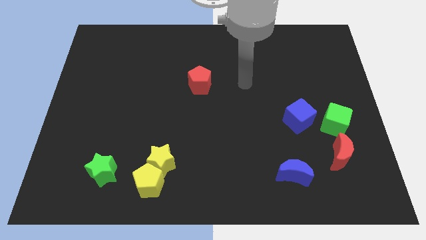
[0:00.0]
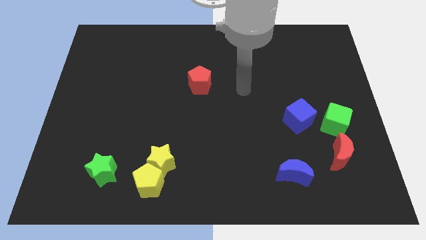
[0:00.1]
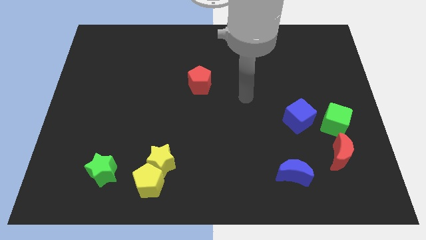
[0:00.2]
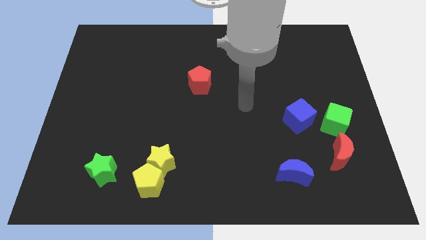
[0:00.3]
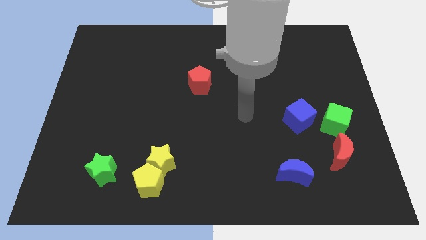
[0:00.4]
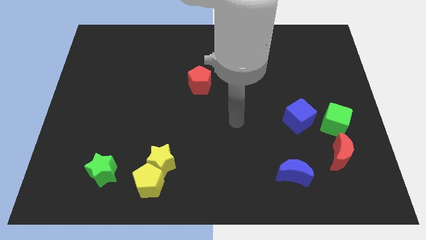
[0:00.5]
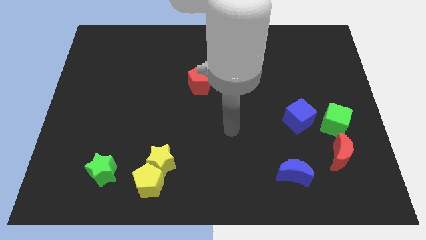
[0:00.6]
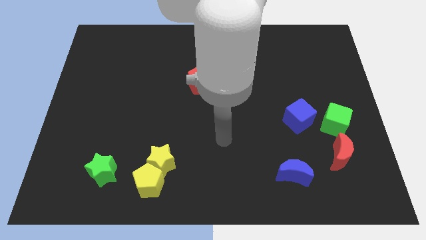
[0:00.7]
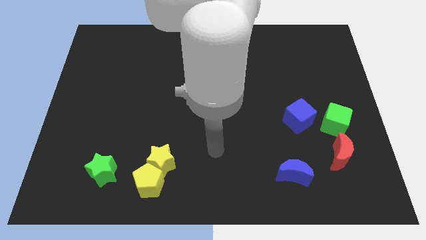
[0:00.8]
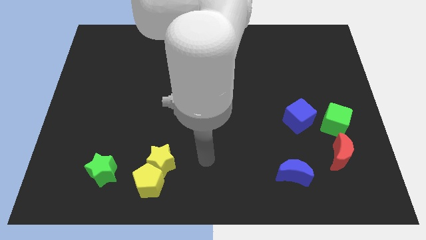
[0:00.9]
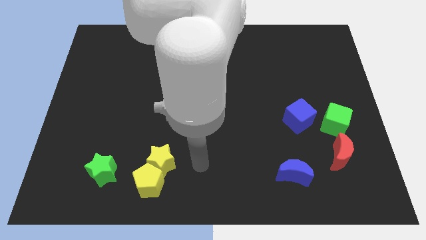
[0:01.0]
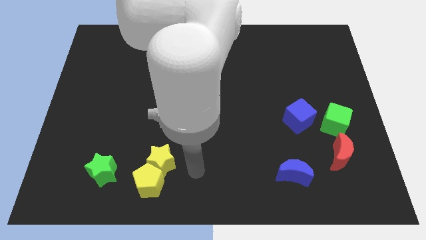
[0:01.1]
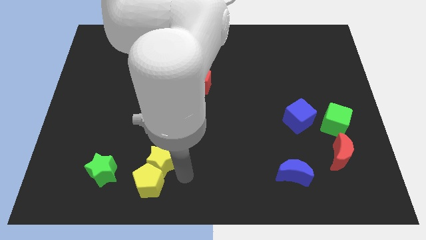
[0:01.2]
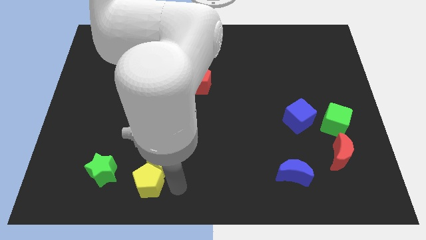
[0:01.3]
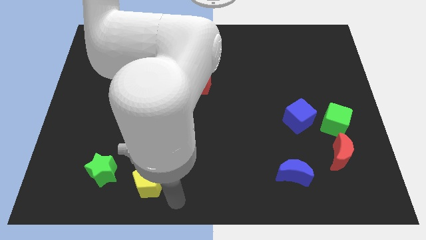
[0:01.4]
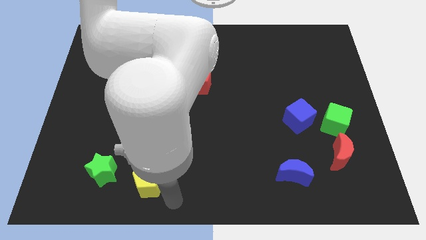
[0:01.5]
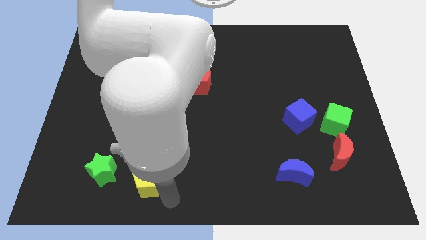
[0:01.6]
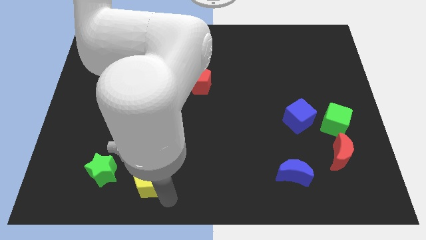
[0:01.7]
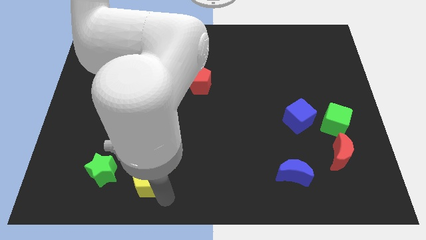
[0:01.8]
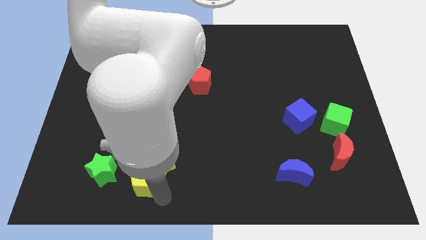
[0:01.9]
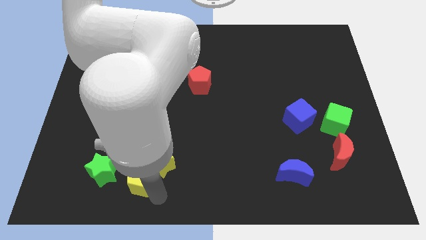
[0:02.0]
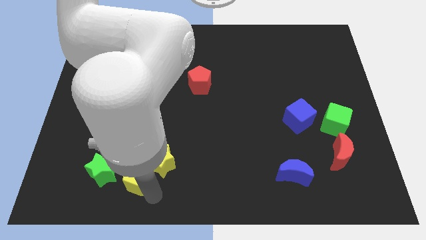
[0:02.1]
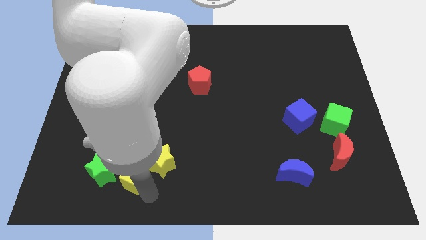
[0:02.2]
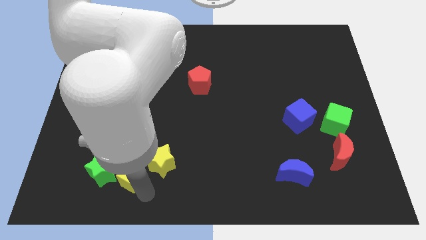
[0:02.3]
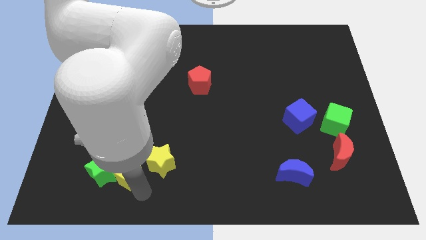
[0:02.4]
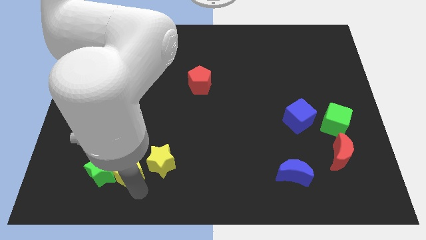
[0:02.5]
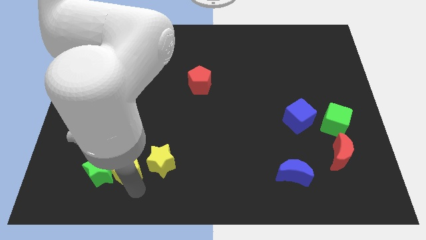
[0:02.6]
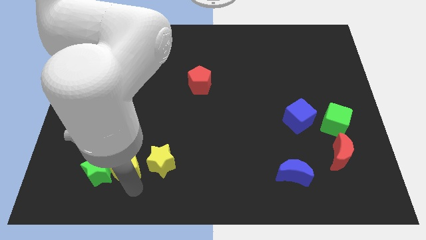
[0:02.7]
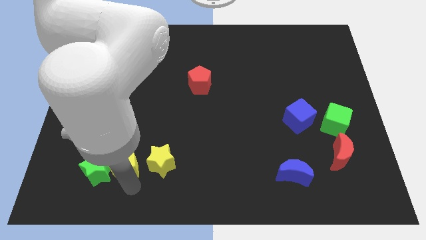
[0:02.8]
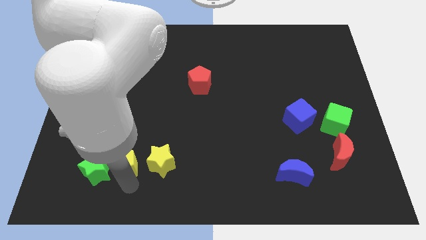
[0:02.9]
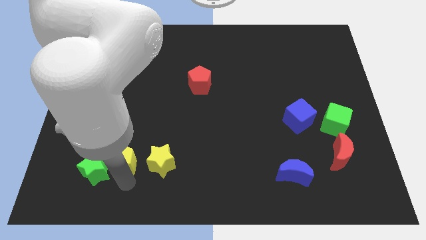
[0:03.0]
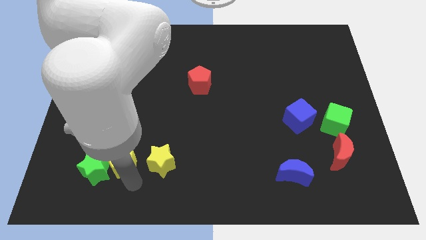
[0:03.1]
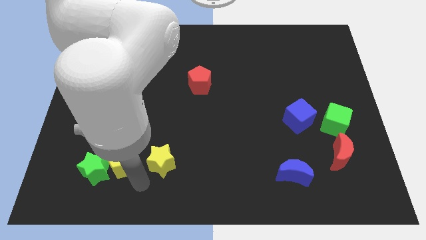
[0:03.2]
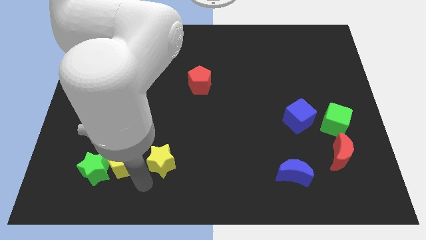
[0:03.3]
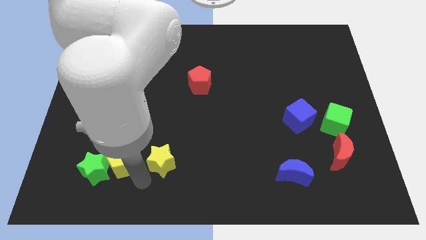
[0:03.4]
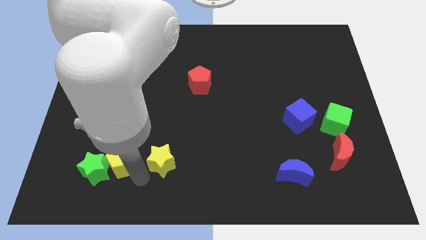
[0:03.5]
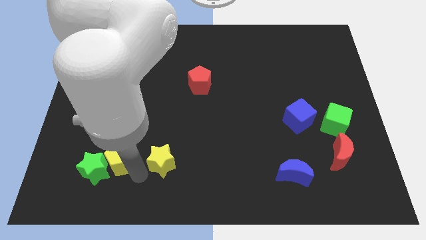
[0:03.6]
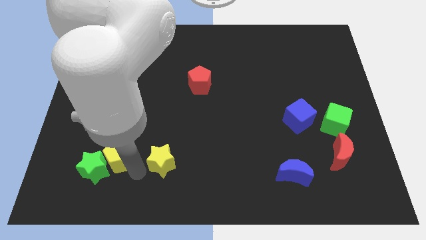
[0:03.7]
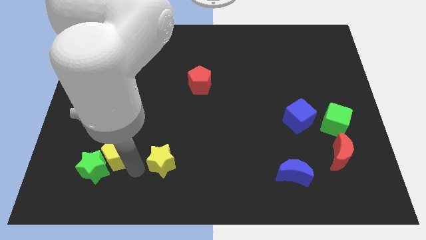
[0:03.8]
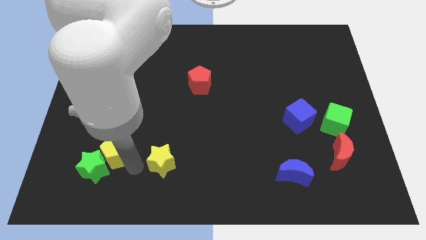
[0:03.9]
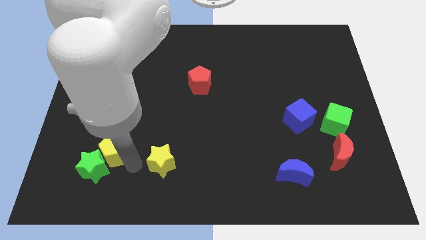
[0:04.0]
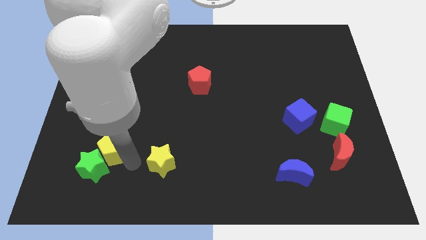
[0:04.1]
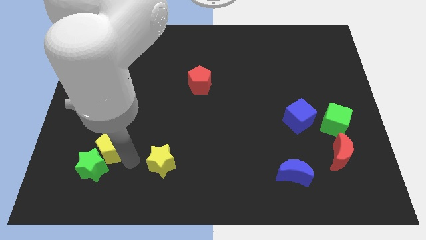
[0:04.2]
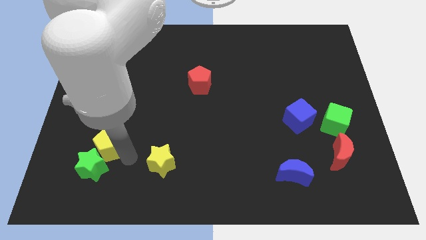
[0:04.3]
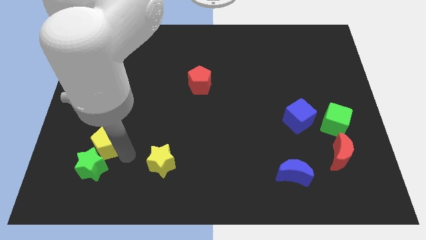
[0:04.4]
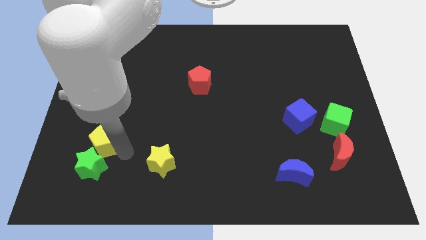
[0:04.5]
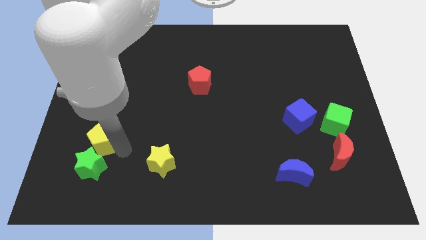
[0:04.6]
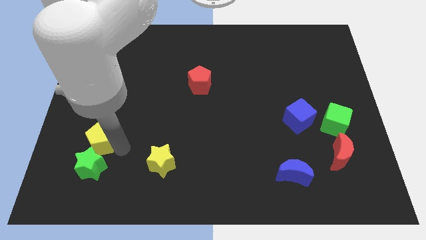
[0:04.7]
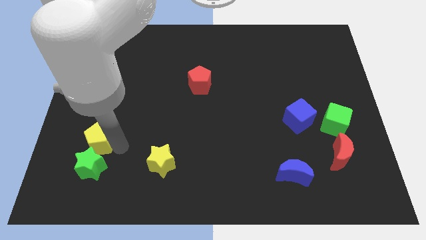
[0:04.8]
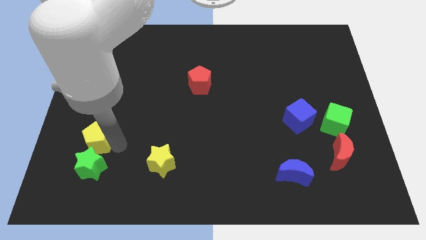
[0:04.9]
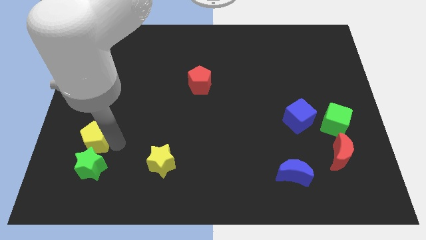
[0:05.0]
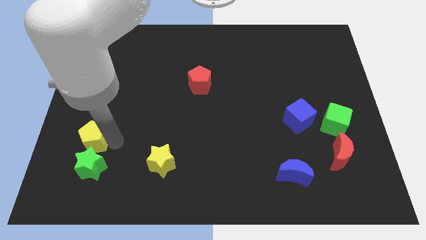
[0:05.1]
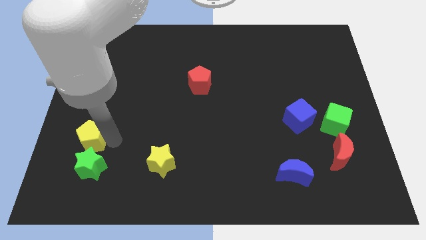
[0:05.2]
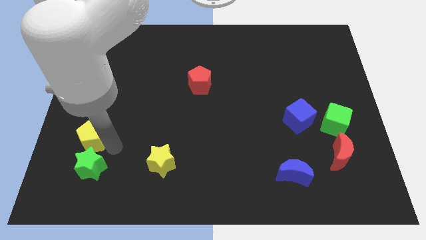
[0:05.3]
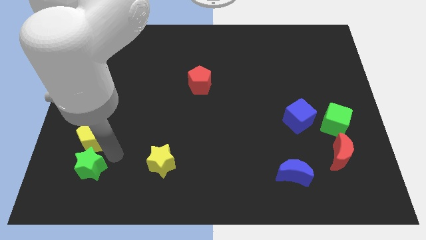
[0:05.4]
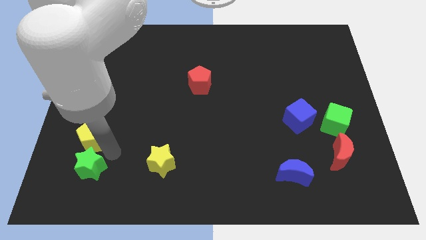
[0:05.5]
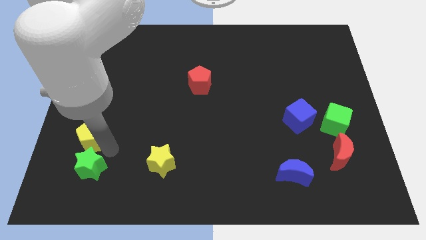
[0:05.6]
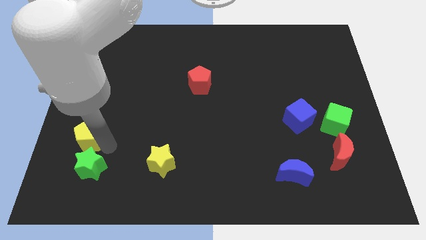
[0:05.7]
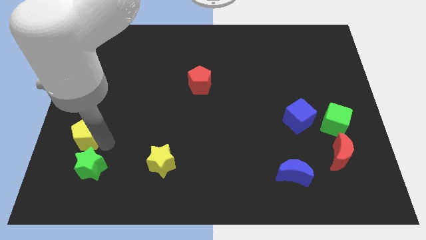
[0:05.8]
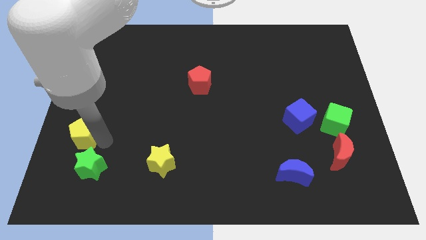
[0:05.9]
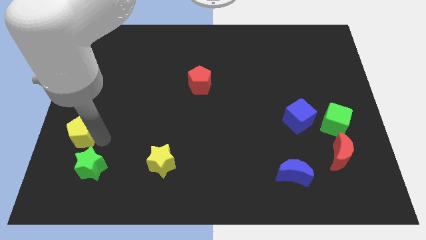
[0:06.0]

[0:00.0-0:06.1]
slide the yellow pentagon to the center left
